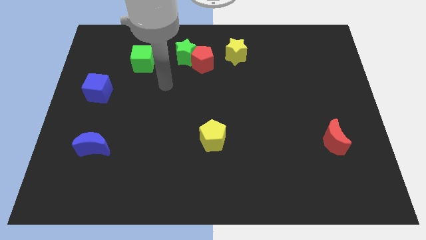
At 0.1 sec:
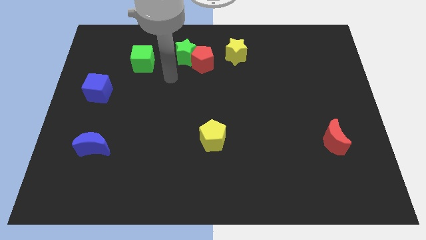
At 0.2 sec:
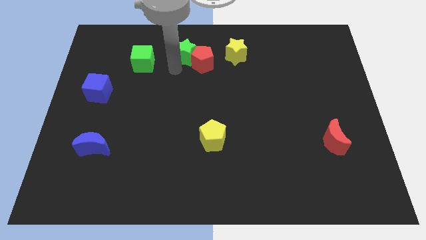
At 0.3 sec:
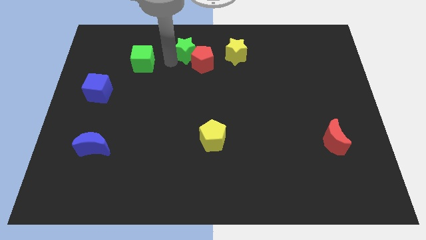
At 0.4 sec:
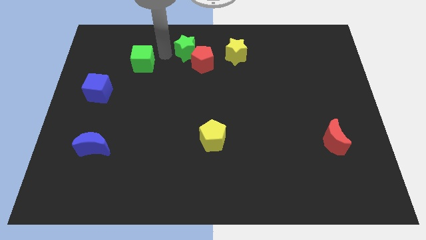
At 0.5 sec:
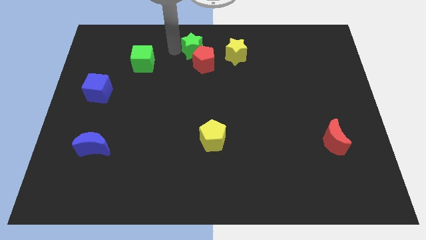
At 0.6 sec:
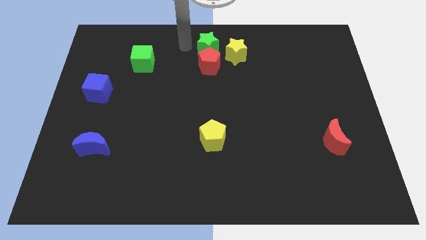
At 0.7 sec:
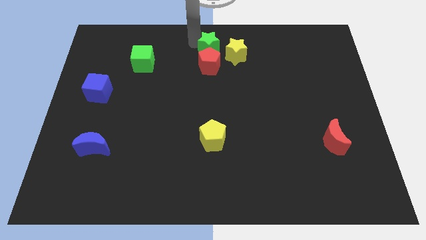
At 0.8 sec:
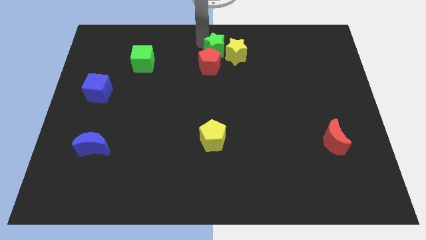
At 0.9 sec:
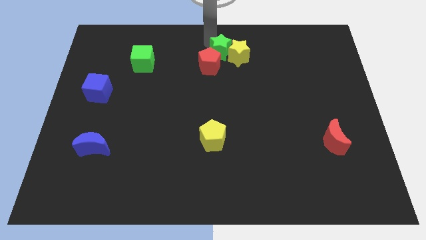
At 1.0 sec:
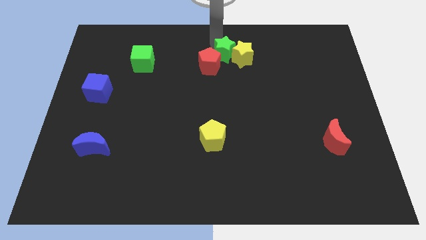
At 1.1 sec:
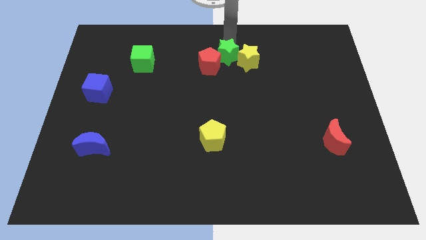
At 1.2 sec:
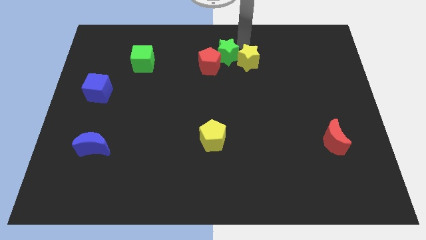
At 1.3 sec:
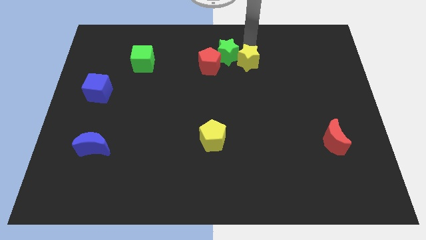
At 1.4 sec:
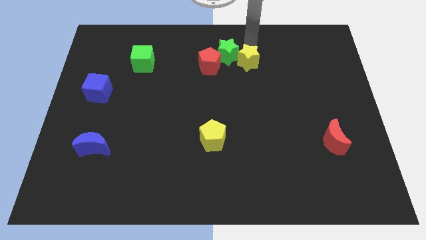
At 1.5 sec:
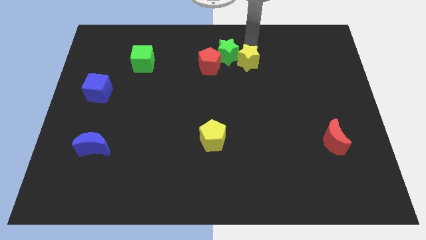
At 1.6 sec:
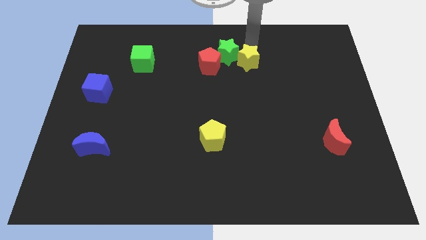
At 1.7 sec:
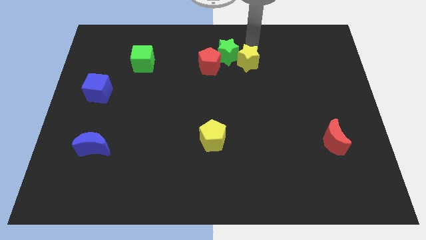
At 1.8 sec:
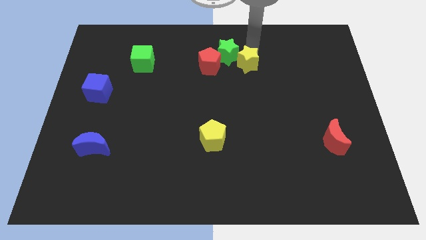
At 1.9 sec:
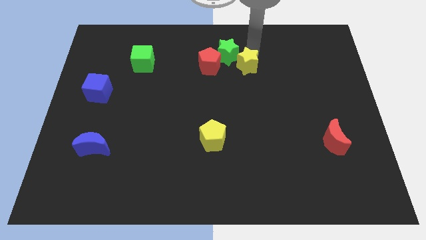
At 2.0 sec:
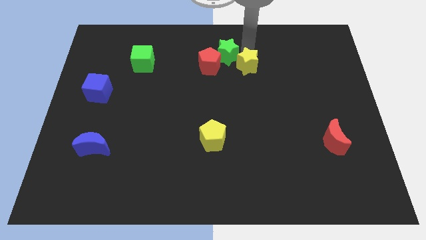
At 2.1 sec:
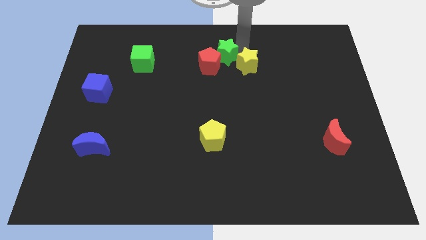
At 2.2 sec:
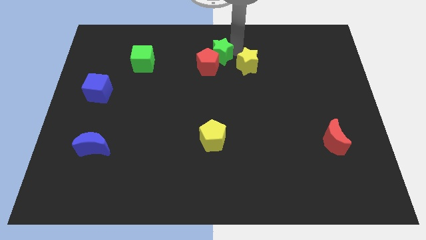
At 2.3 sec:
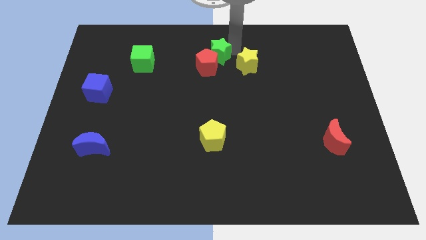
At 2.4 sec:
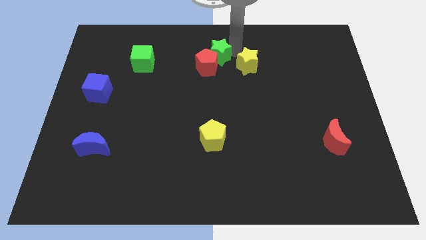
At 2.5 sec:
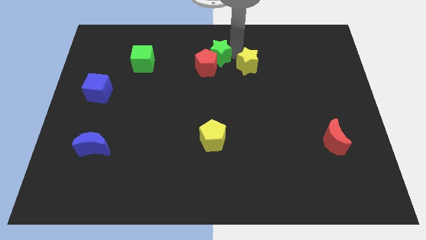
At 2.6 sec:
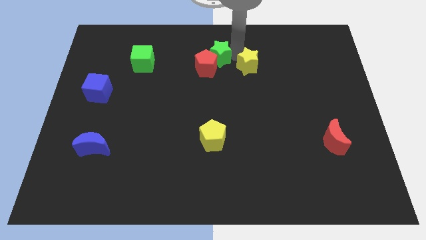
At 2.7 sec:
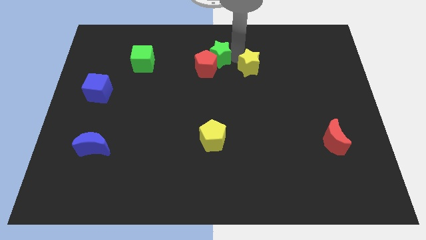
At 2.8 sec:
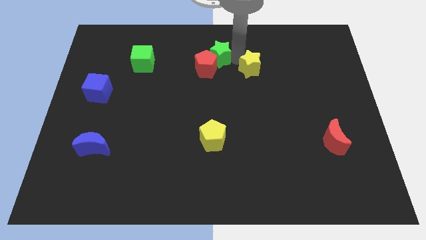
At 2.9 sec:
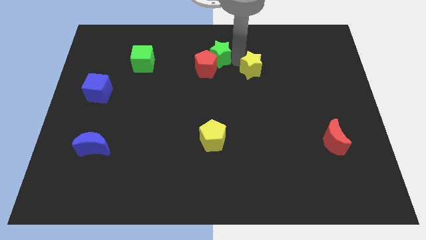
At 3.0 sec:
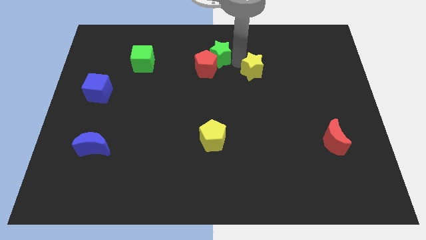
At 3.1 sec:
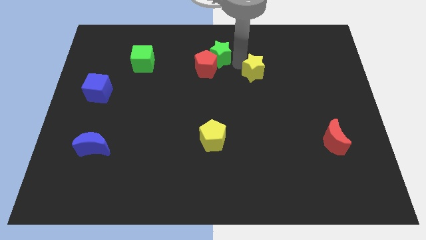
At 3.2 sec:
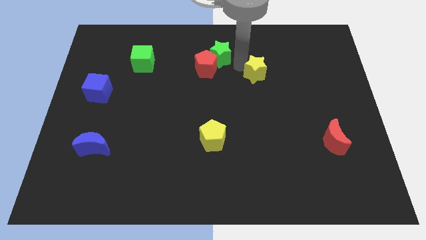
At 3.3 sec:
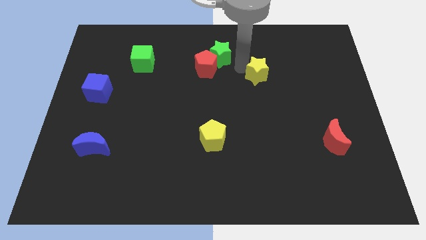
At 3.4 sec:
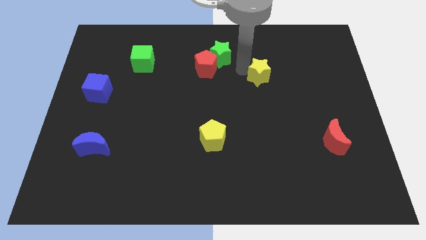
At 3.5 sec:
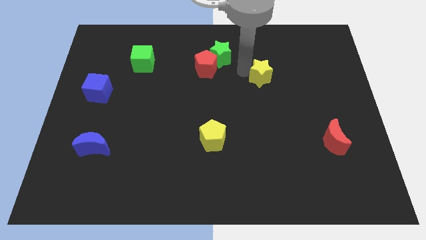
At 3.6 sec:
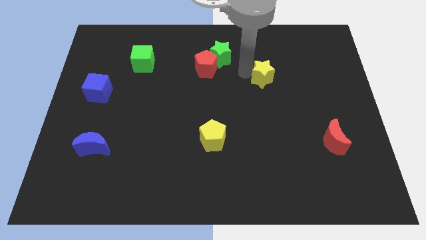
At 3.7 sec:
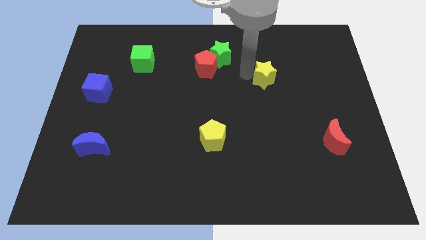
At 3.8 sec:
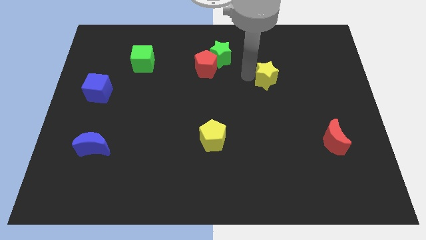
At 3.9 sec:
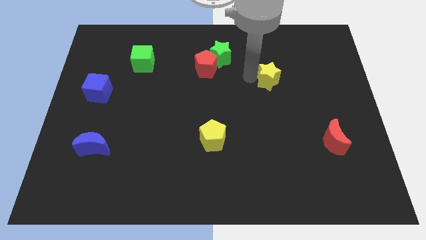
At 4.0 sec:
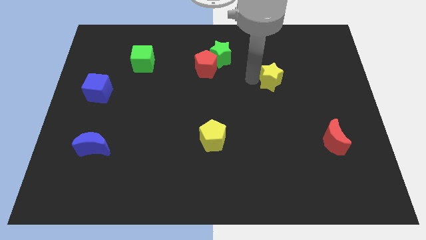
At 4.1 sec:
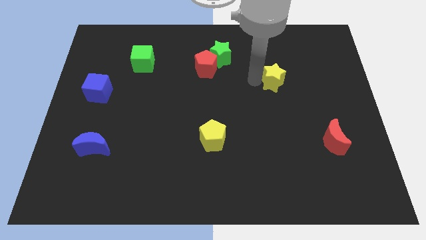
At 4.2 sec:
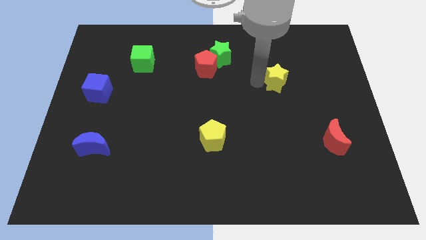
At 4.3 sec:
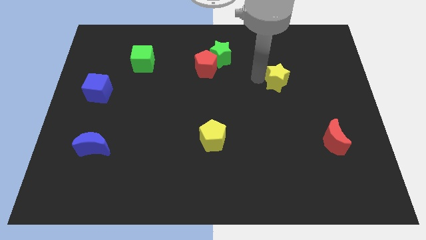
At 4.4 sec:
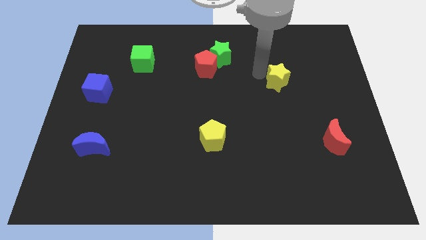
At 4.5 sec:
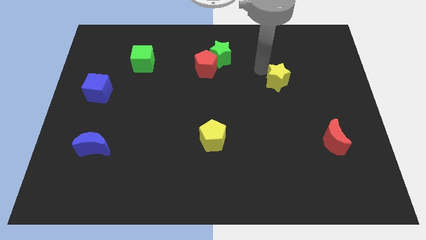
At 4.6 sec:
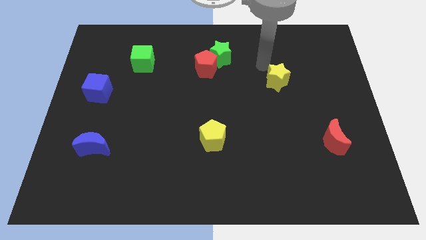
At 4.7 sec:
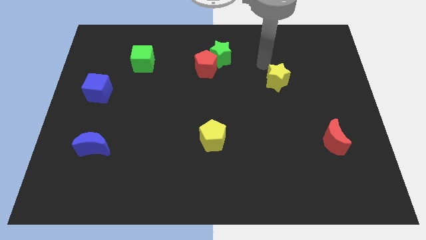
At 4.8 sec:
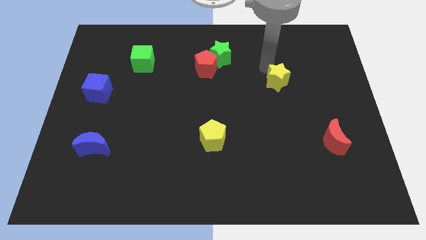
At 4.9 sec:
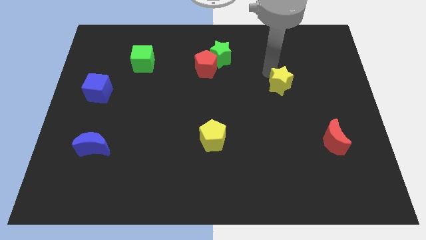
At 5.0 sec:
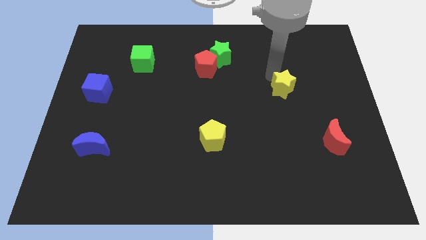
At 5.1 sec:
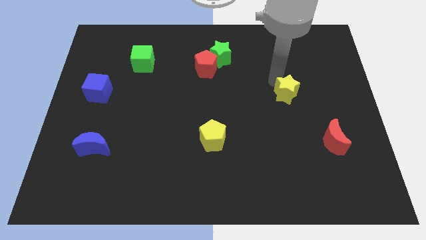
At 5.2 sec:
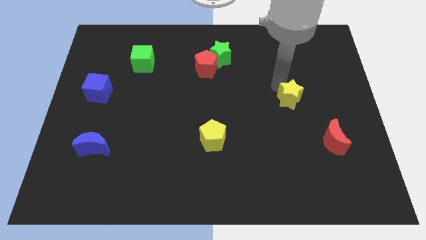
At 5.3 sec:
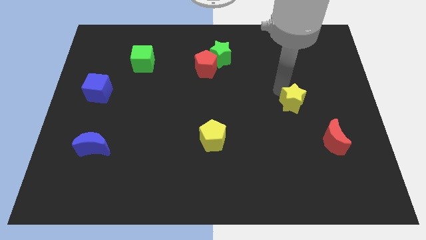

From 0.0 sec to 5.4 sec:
slide the yellow star diagonally downwards and to the right

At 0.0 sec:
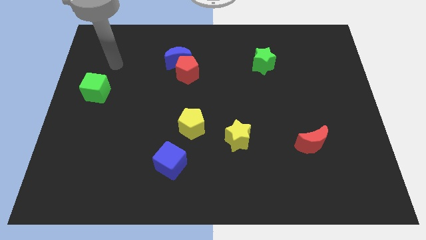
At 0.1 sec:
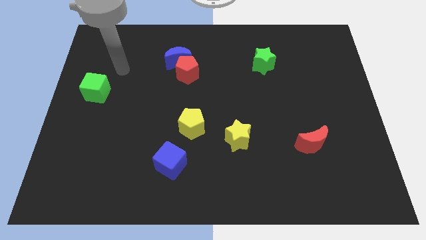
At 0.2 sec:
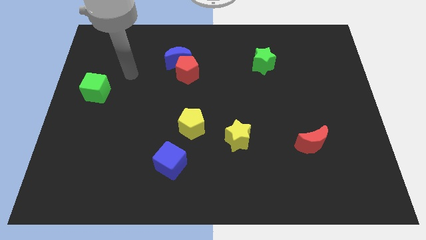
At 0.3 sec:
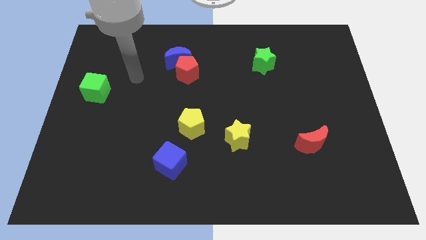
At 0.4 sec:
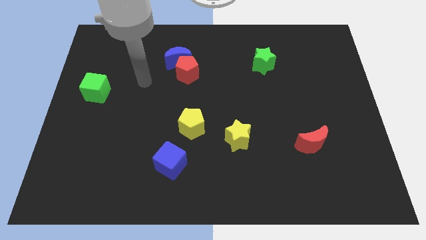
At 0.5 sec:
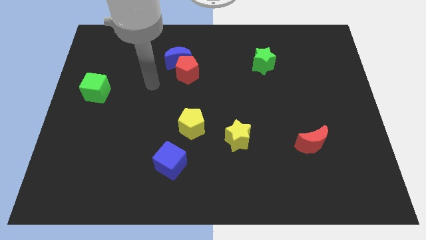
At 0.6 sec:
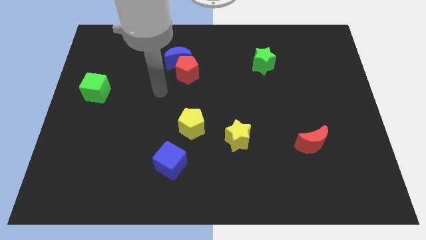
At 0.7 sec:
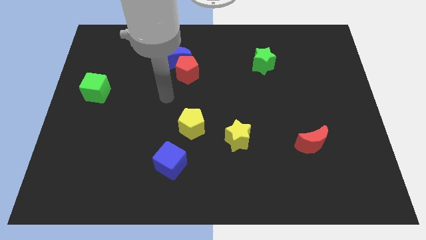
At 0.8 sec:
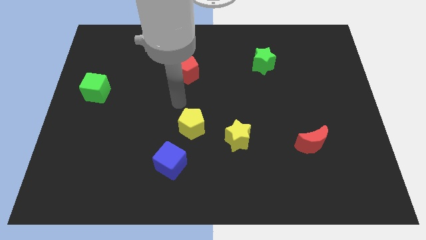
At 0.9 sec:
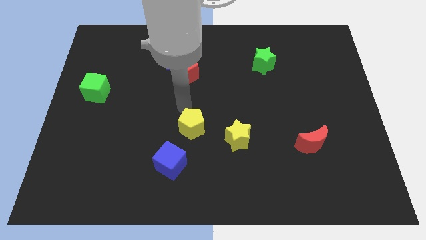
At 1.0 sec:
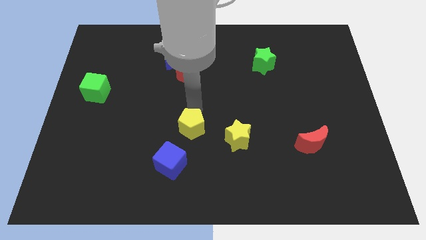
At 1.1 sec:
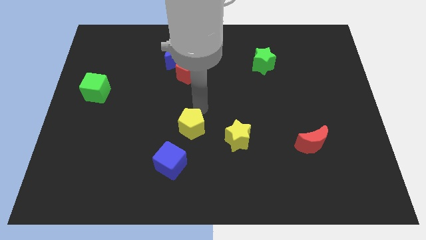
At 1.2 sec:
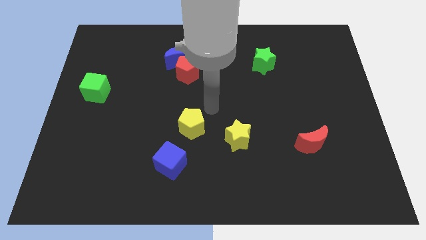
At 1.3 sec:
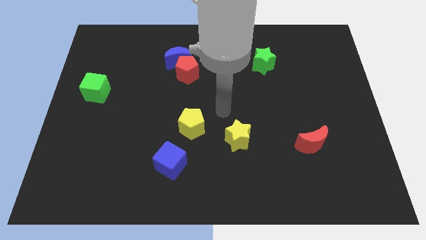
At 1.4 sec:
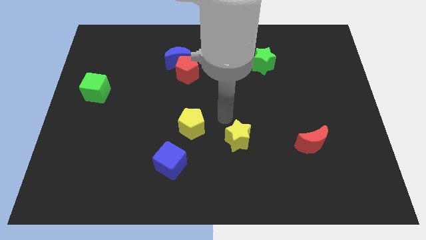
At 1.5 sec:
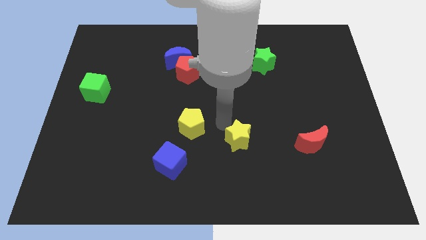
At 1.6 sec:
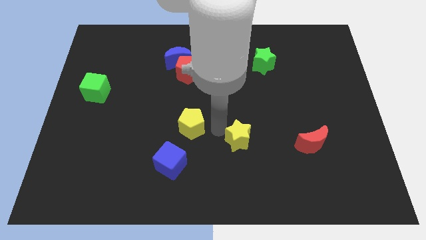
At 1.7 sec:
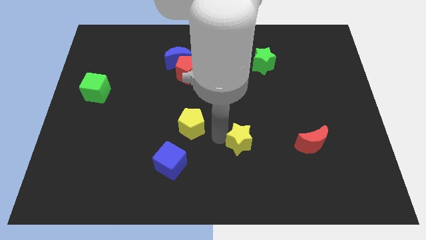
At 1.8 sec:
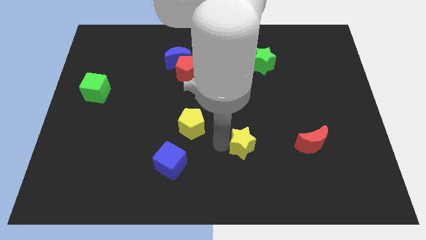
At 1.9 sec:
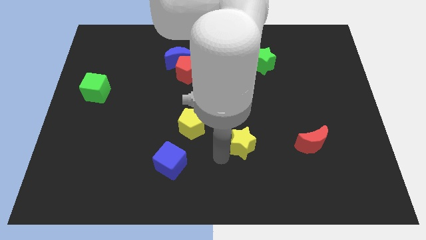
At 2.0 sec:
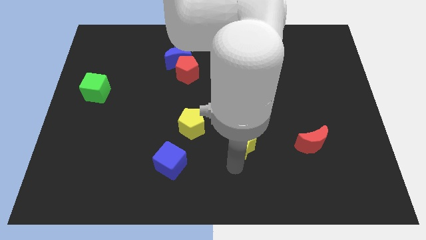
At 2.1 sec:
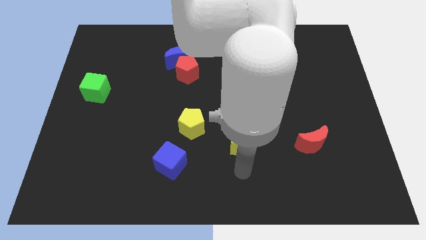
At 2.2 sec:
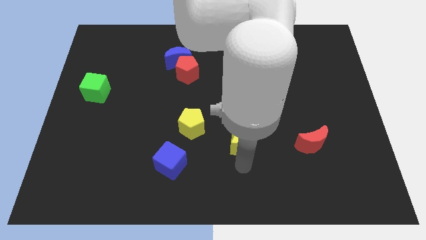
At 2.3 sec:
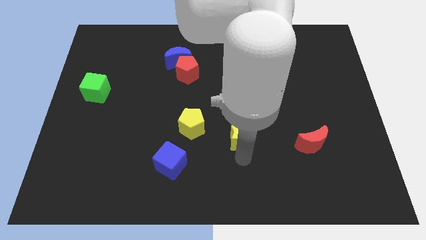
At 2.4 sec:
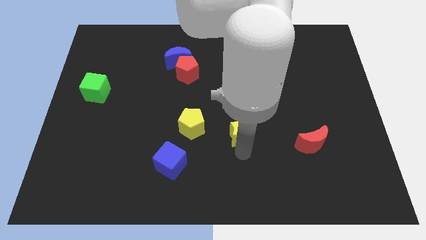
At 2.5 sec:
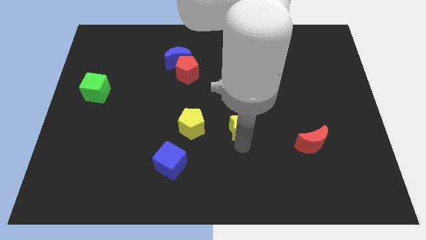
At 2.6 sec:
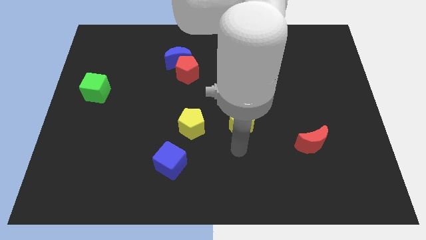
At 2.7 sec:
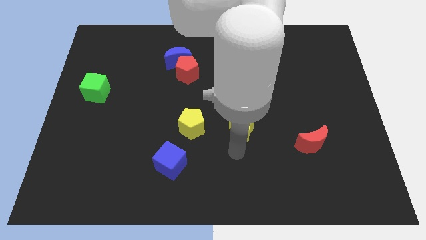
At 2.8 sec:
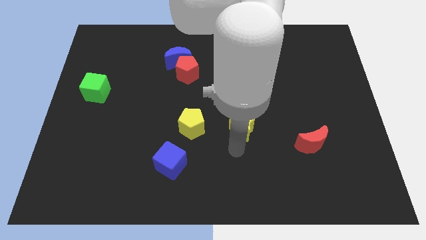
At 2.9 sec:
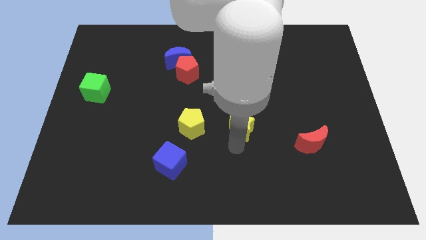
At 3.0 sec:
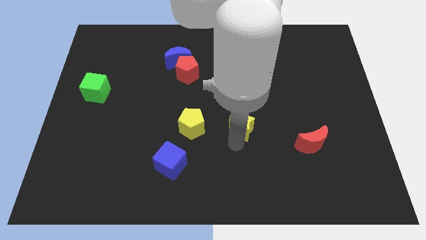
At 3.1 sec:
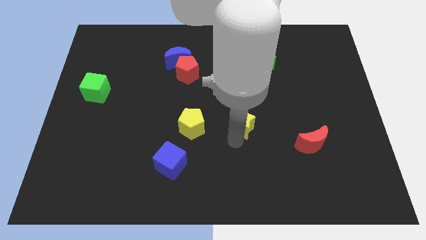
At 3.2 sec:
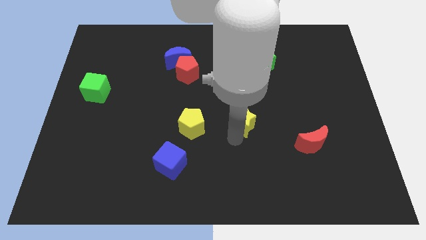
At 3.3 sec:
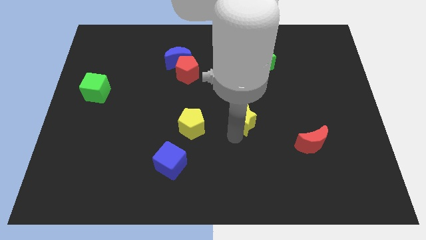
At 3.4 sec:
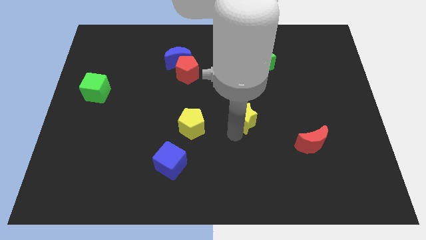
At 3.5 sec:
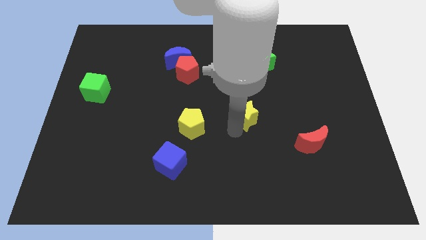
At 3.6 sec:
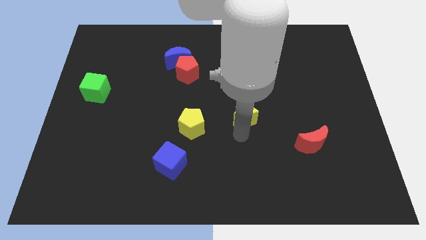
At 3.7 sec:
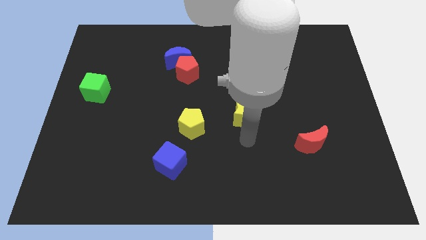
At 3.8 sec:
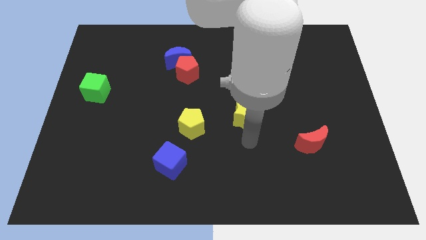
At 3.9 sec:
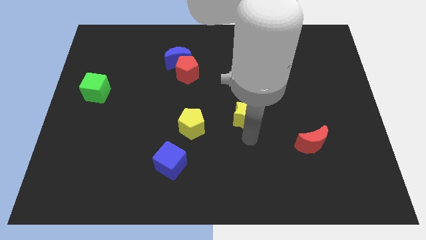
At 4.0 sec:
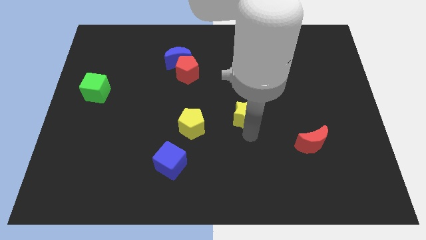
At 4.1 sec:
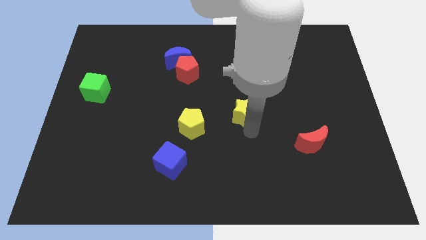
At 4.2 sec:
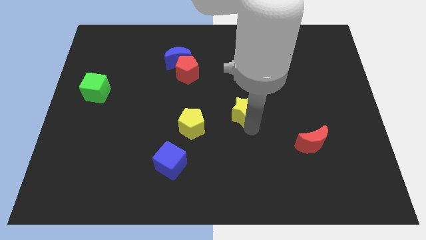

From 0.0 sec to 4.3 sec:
push the yellow star up somewhat
